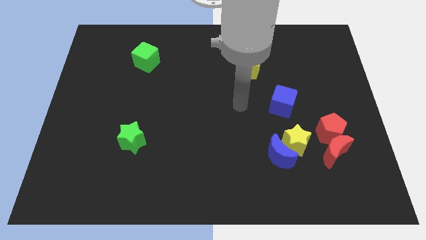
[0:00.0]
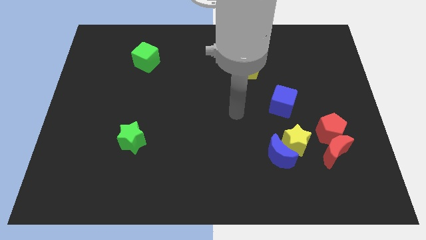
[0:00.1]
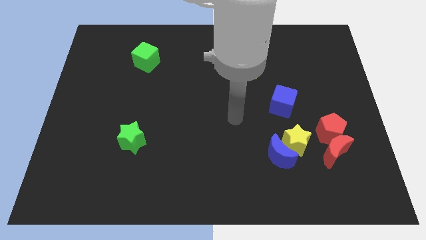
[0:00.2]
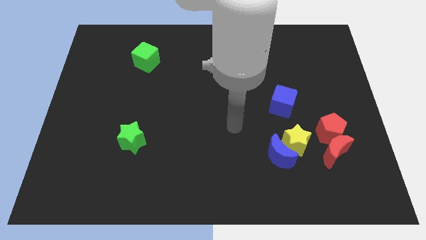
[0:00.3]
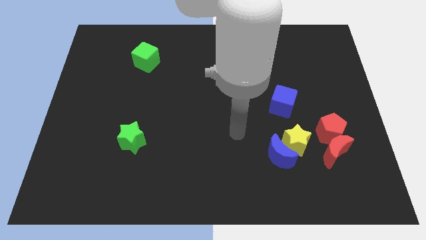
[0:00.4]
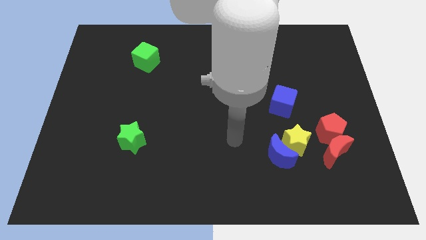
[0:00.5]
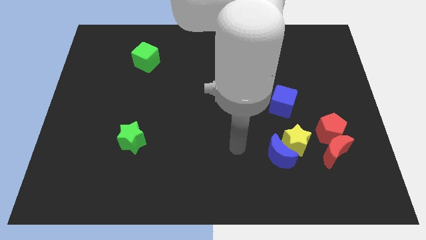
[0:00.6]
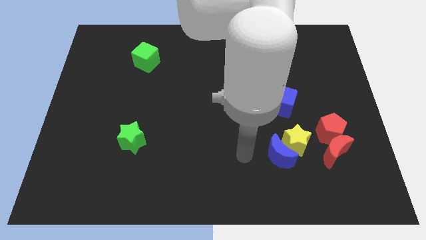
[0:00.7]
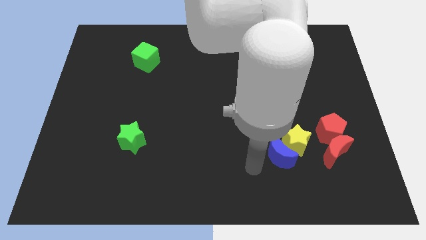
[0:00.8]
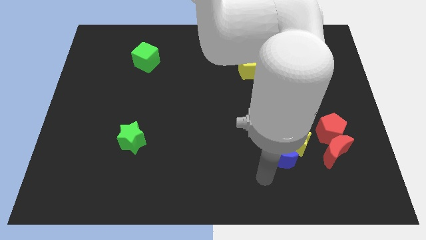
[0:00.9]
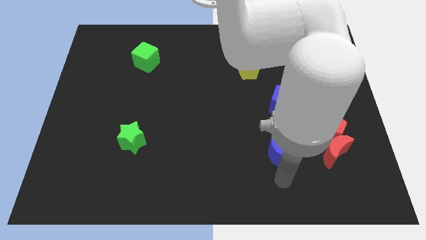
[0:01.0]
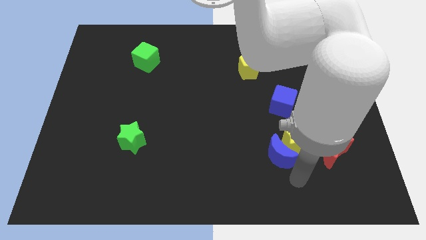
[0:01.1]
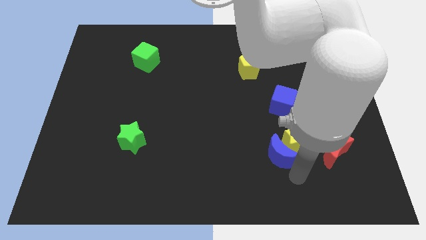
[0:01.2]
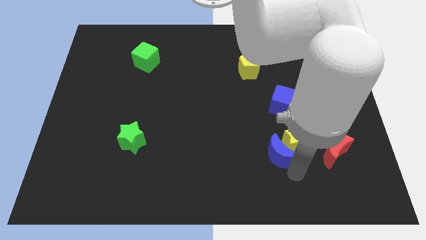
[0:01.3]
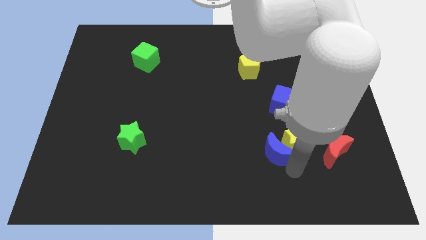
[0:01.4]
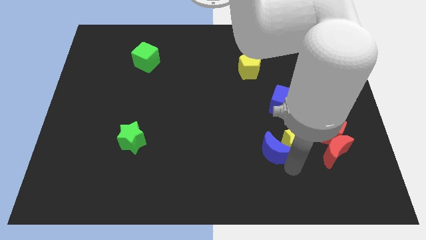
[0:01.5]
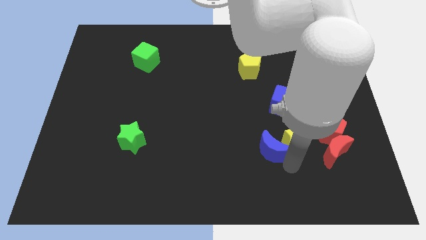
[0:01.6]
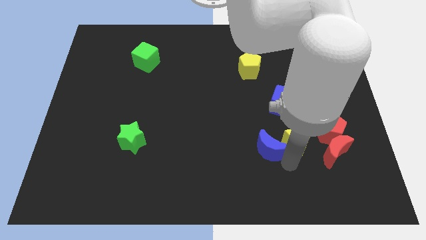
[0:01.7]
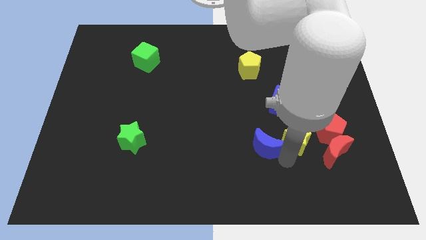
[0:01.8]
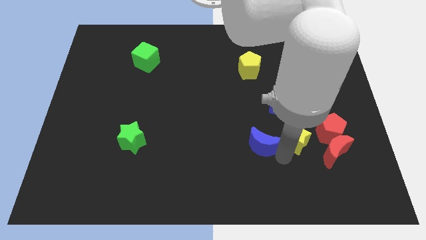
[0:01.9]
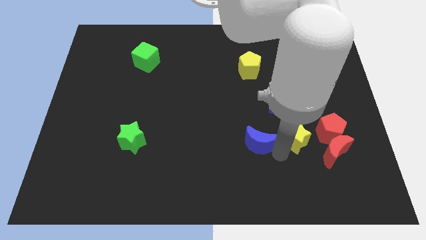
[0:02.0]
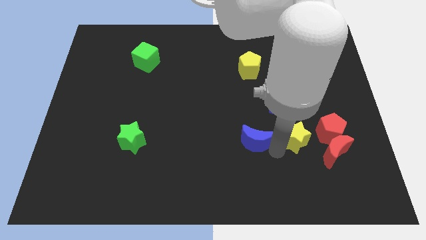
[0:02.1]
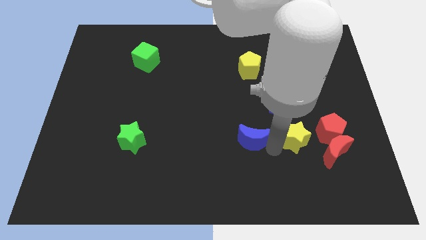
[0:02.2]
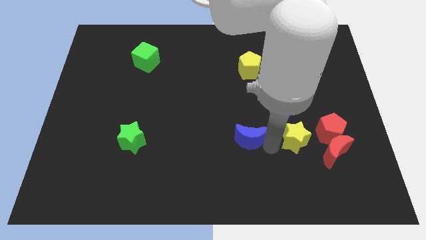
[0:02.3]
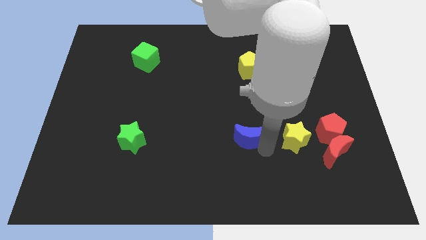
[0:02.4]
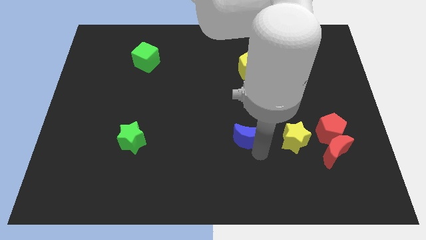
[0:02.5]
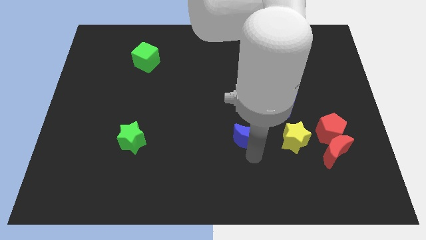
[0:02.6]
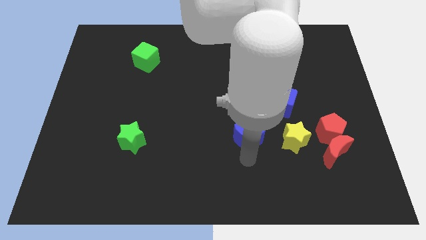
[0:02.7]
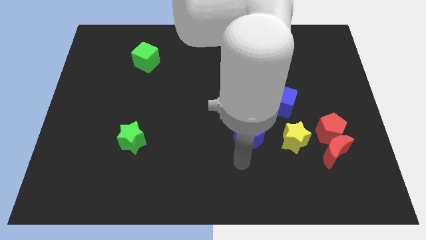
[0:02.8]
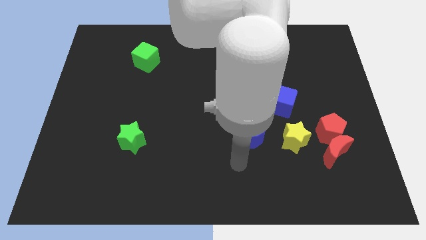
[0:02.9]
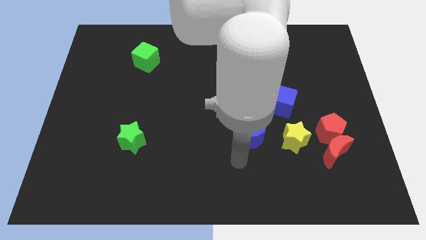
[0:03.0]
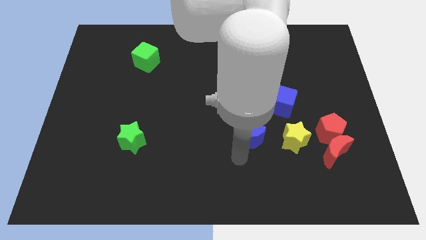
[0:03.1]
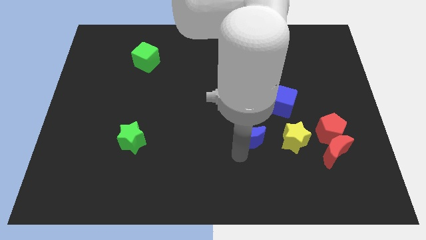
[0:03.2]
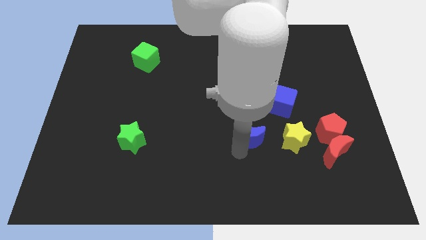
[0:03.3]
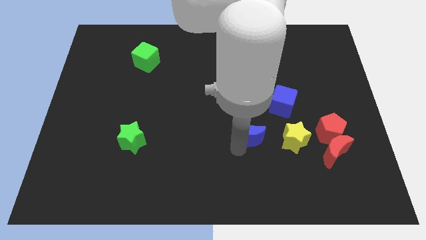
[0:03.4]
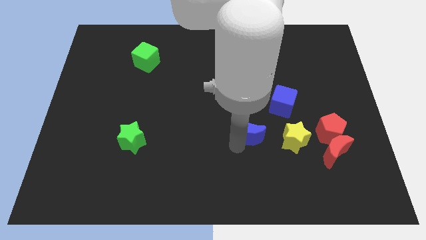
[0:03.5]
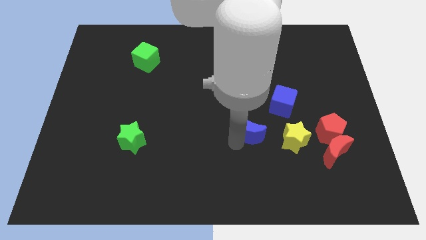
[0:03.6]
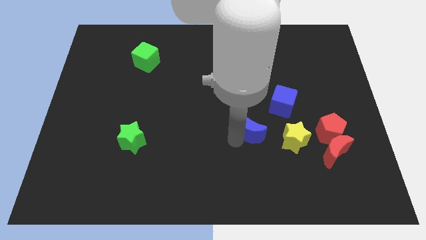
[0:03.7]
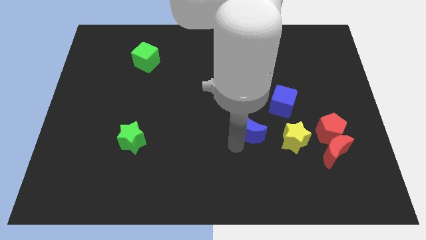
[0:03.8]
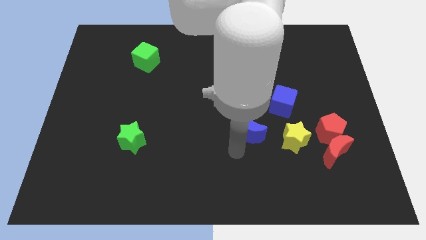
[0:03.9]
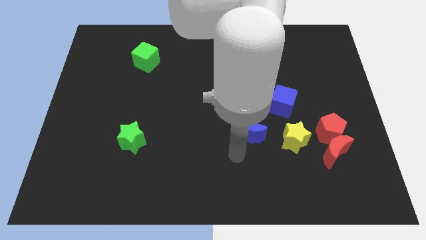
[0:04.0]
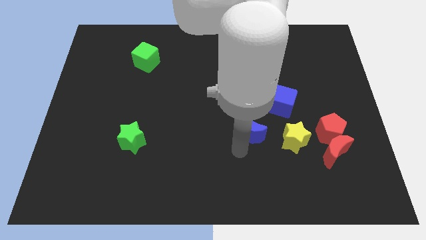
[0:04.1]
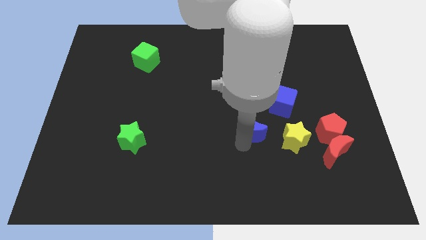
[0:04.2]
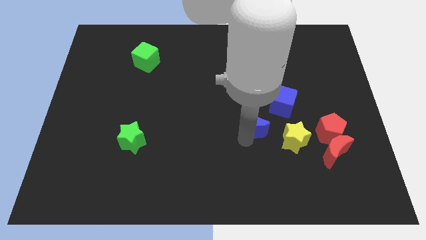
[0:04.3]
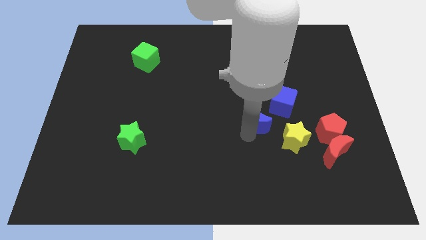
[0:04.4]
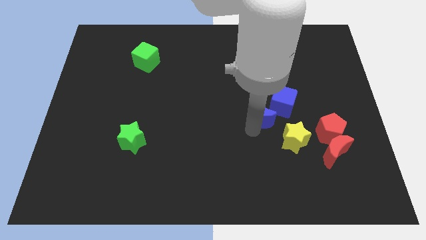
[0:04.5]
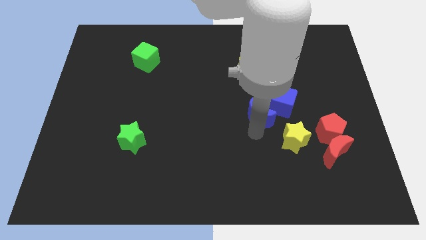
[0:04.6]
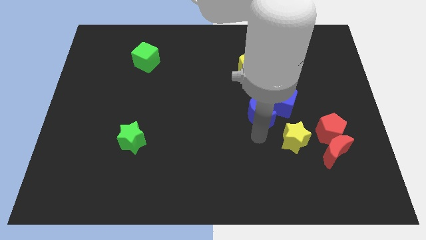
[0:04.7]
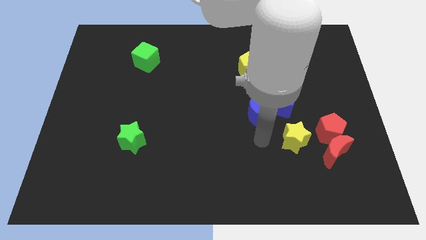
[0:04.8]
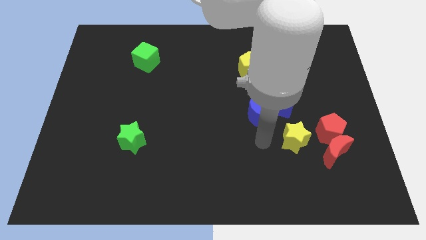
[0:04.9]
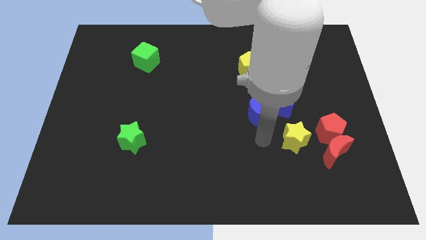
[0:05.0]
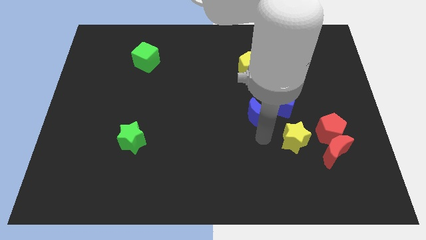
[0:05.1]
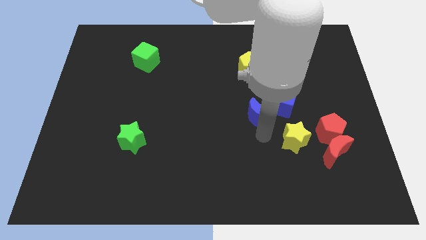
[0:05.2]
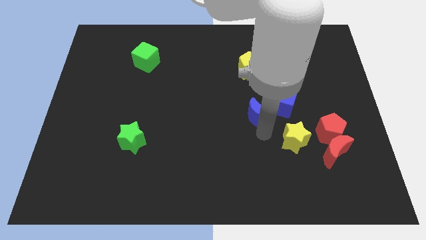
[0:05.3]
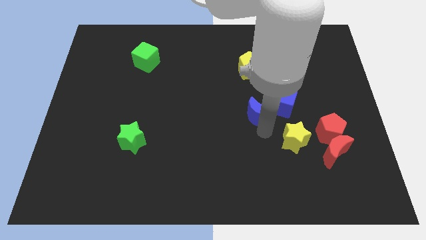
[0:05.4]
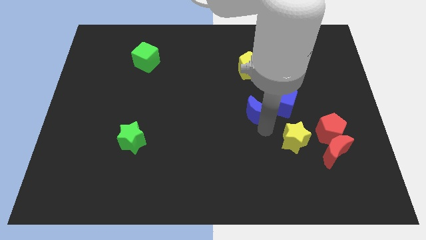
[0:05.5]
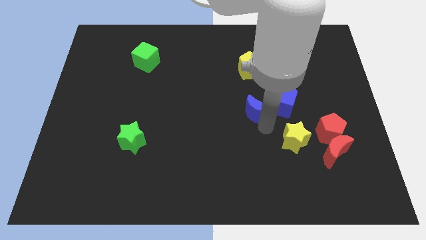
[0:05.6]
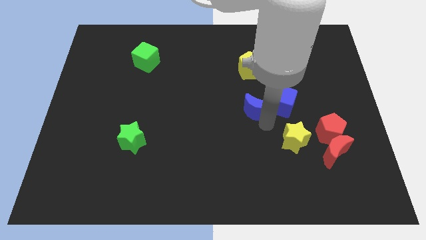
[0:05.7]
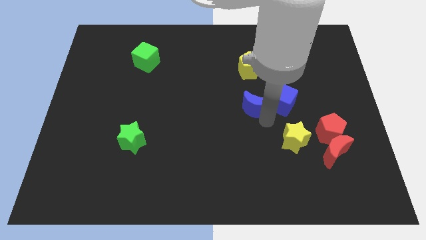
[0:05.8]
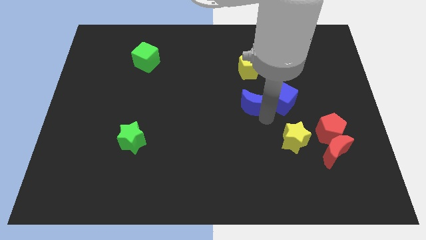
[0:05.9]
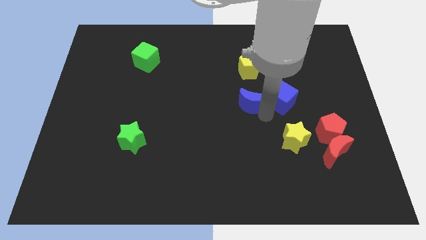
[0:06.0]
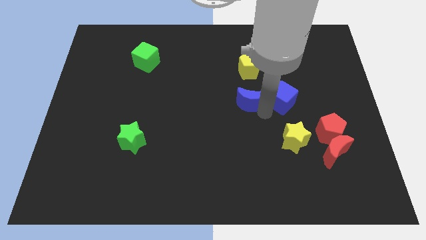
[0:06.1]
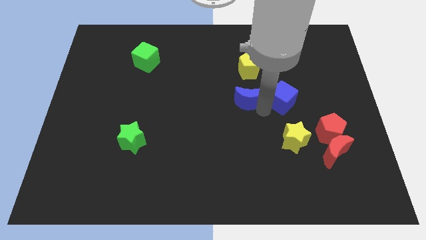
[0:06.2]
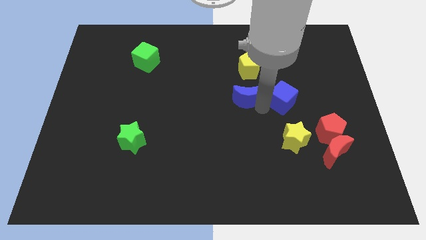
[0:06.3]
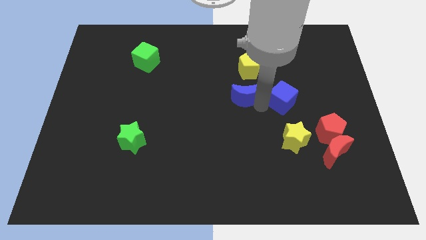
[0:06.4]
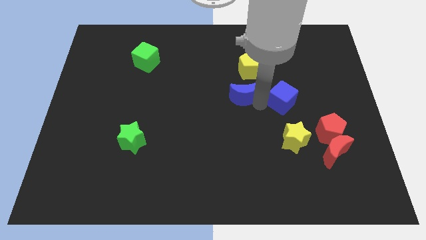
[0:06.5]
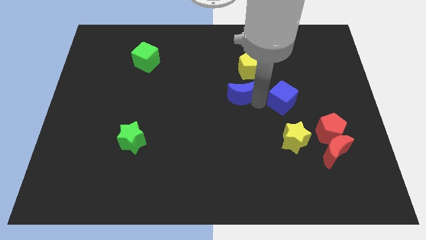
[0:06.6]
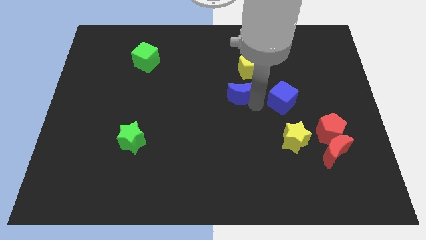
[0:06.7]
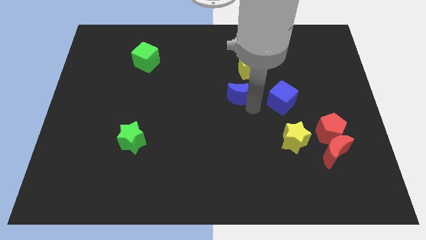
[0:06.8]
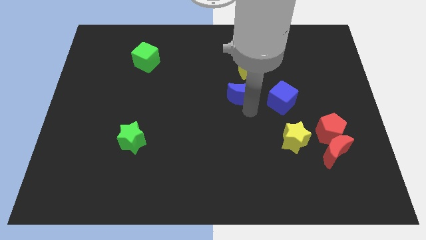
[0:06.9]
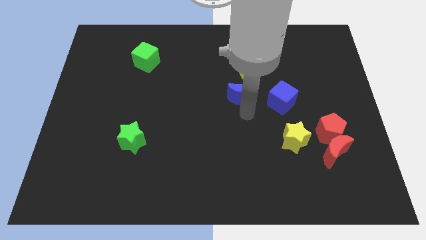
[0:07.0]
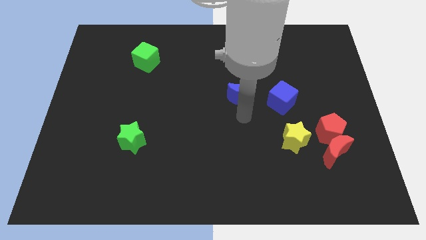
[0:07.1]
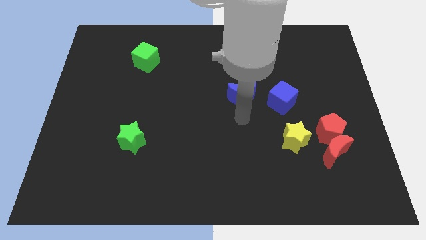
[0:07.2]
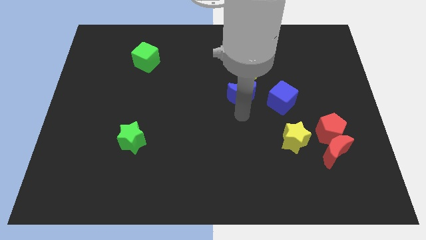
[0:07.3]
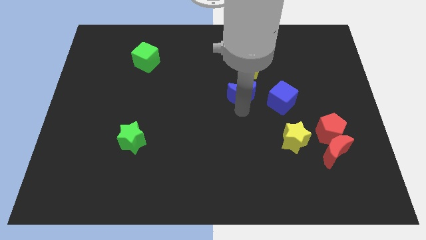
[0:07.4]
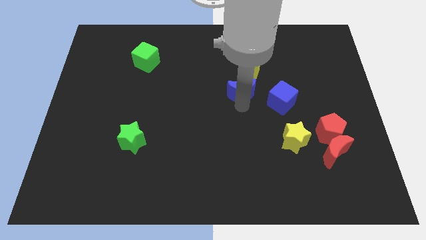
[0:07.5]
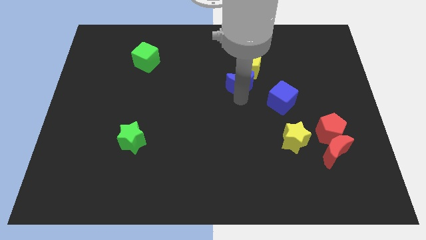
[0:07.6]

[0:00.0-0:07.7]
slide the blue moon to the yellow pentagon

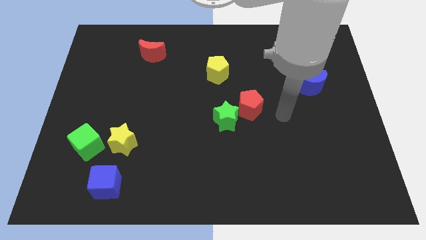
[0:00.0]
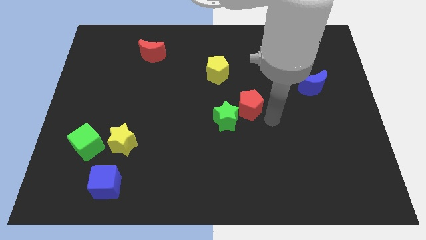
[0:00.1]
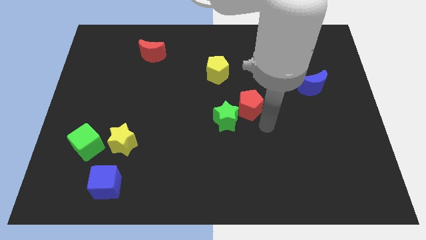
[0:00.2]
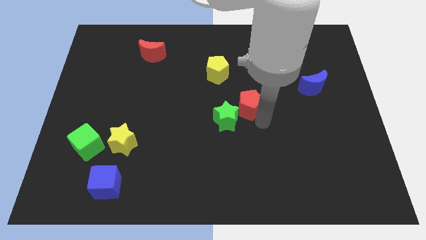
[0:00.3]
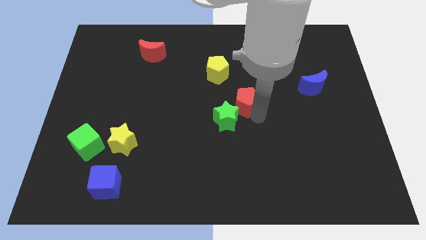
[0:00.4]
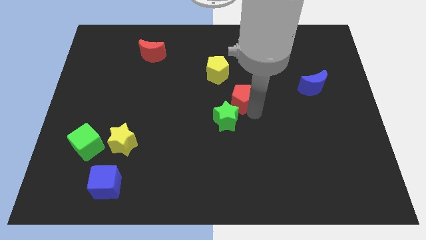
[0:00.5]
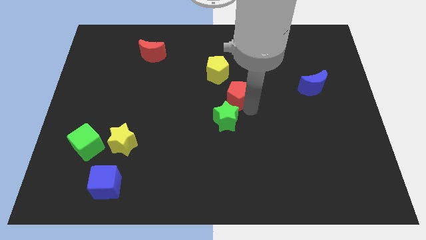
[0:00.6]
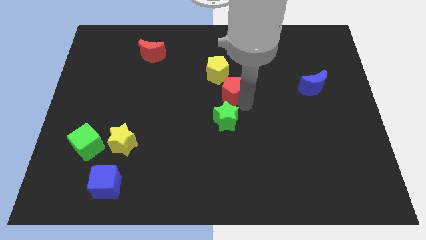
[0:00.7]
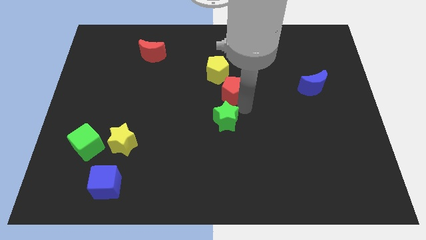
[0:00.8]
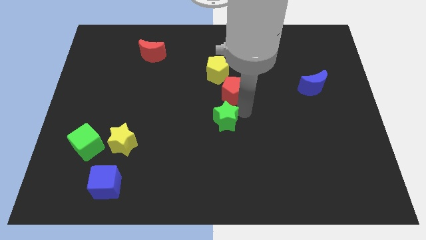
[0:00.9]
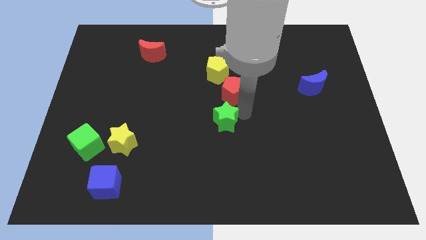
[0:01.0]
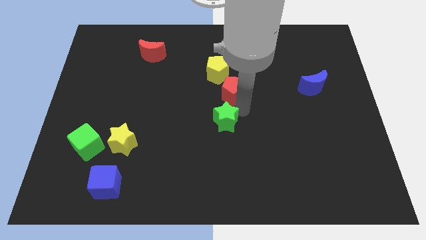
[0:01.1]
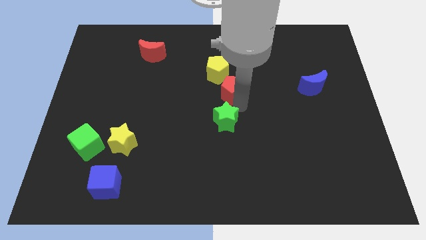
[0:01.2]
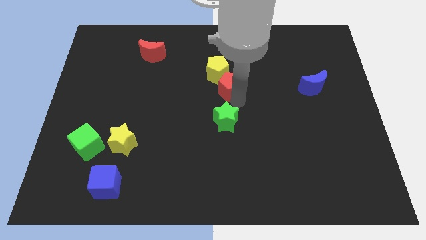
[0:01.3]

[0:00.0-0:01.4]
put the red pentagon close to the yellow pentagon
